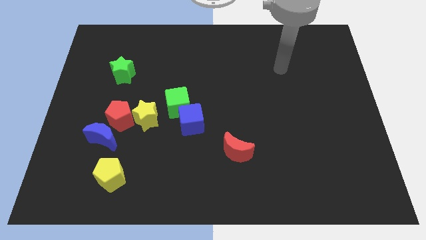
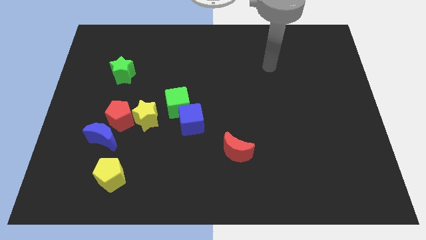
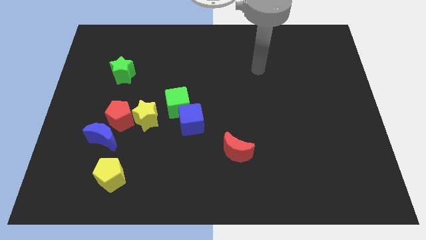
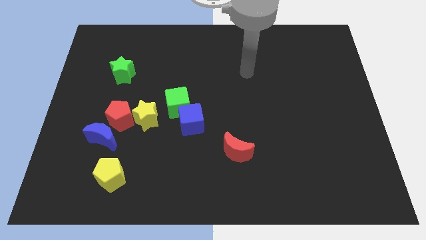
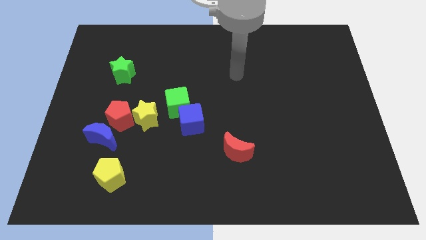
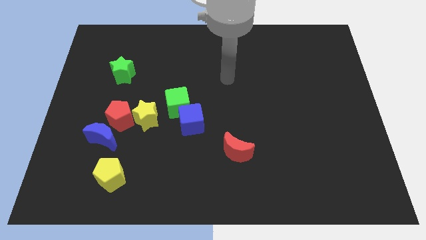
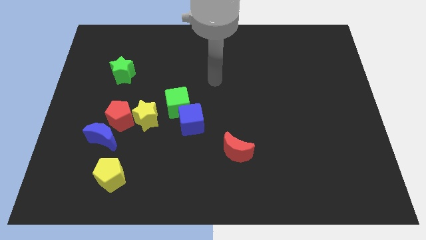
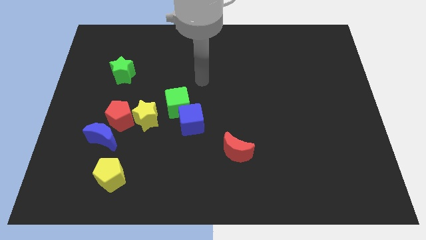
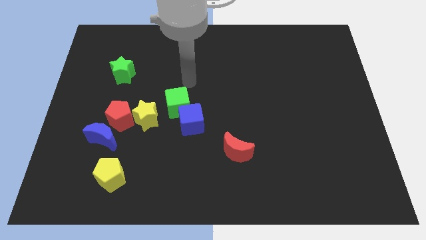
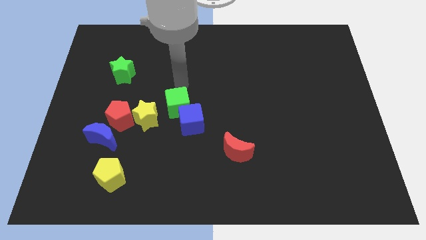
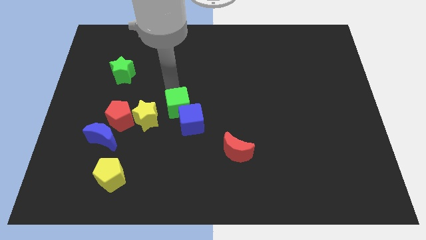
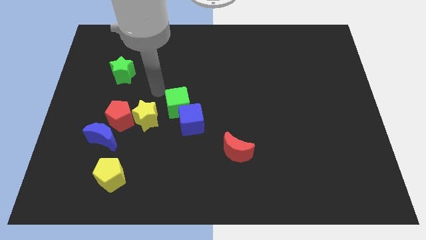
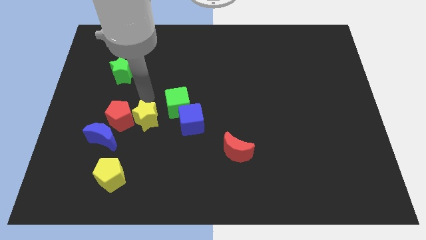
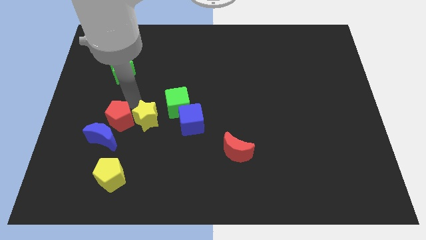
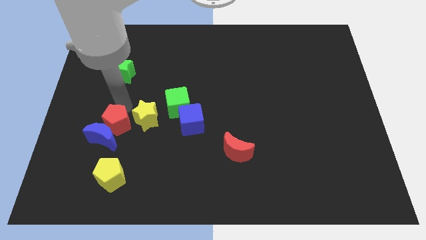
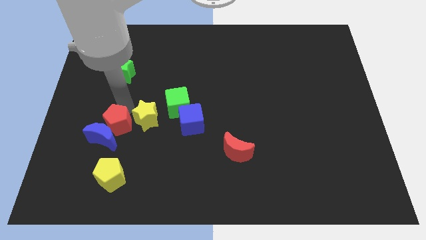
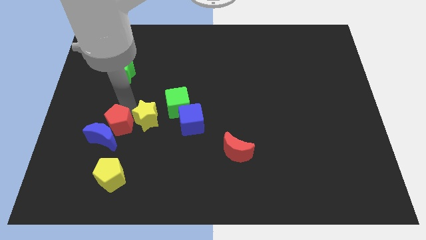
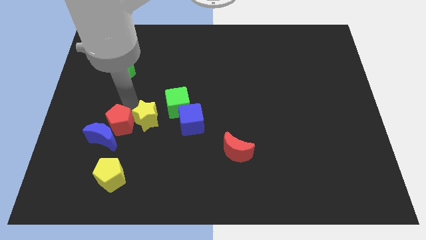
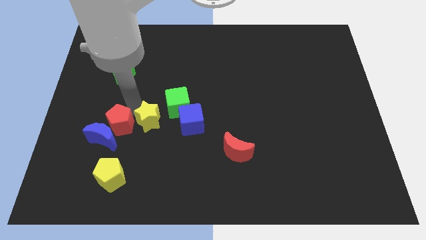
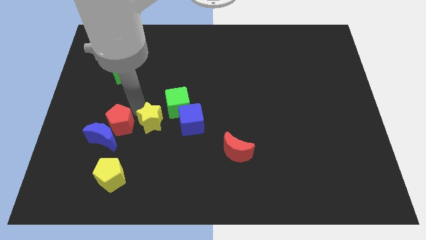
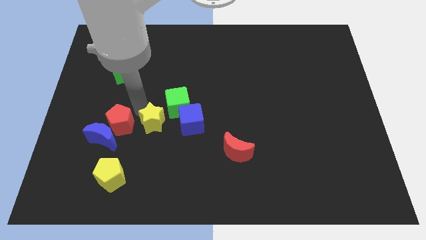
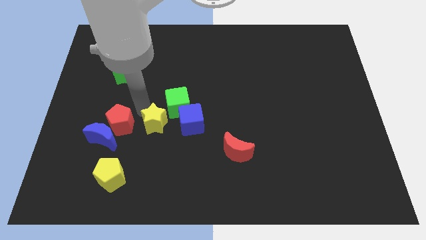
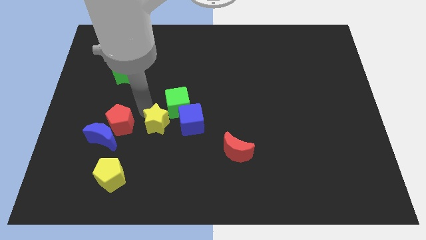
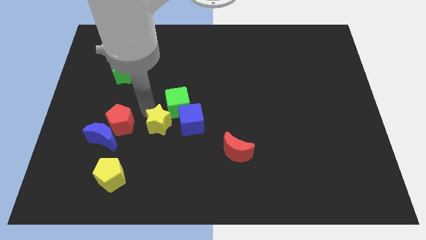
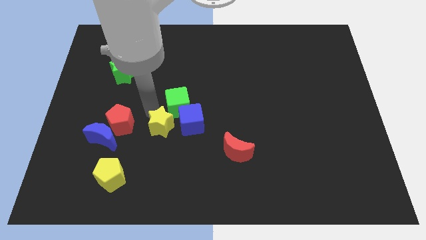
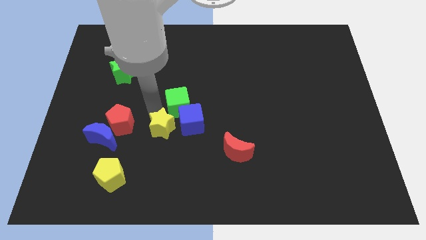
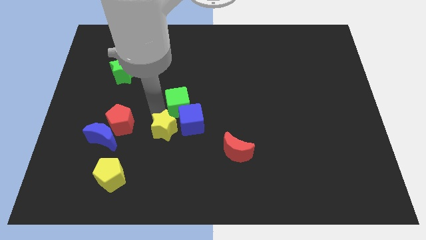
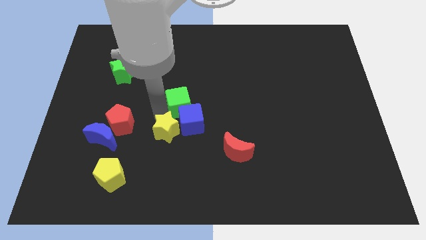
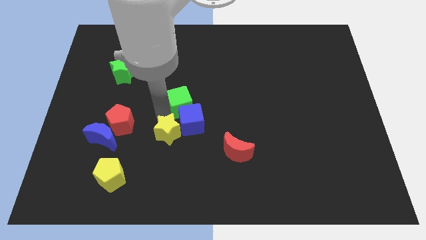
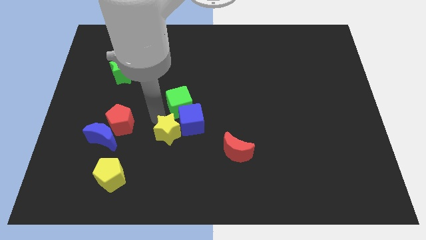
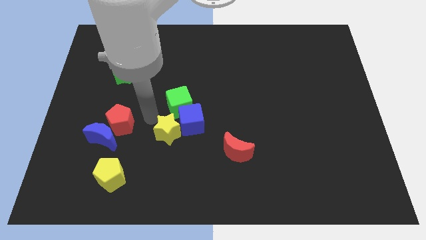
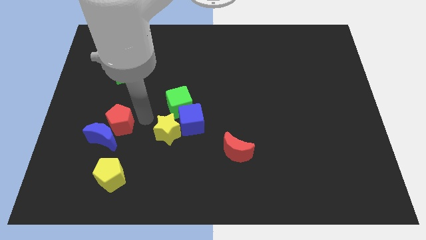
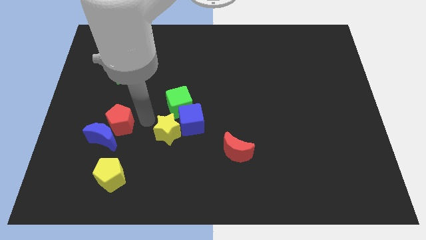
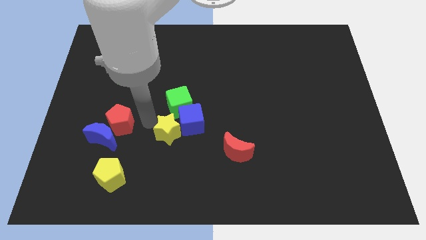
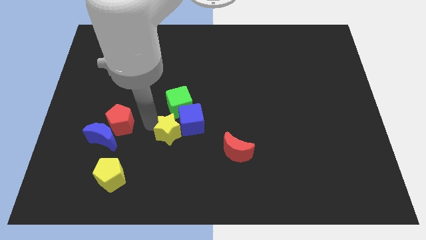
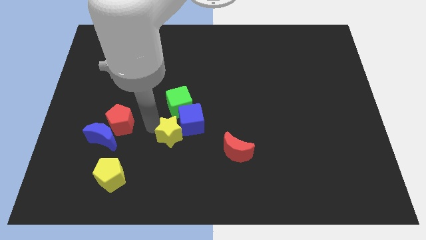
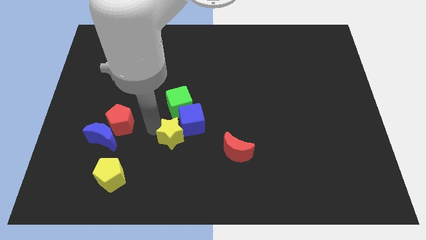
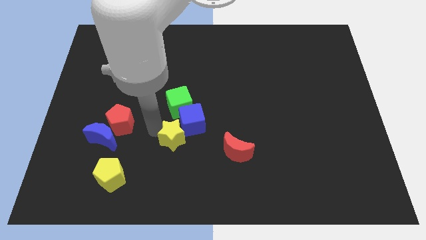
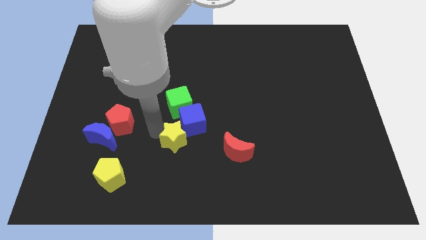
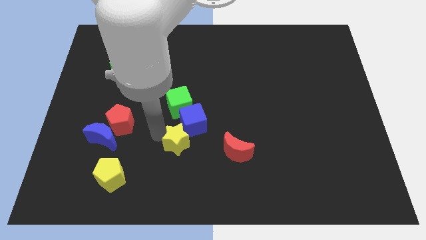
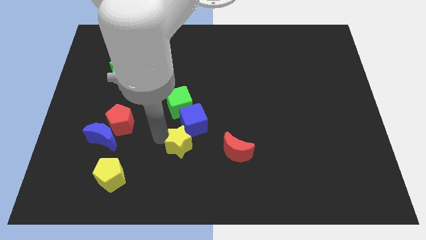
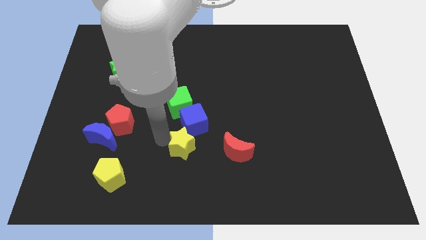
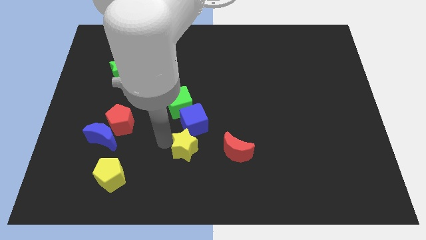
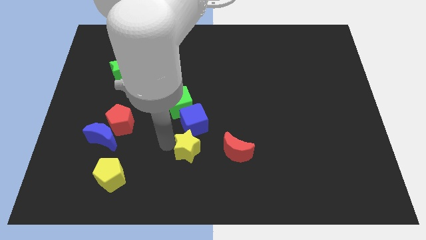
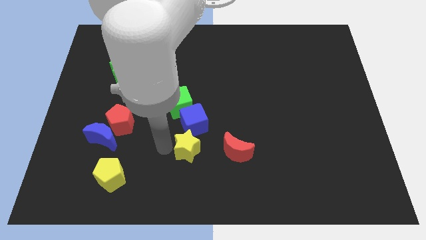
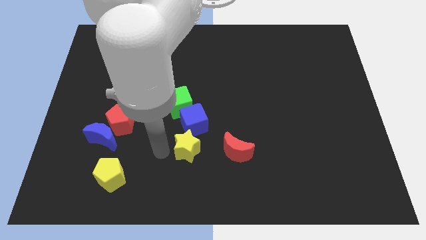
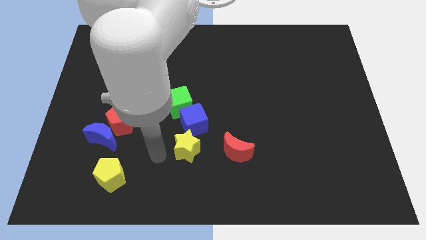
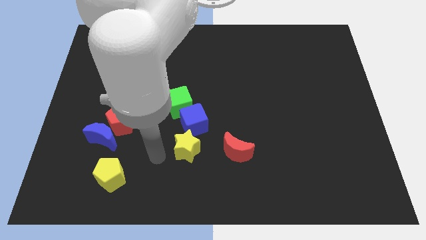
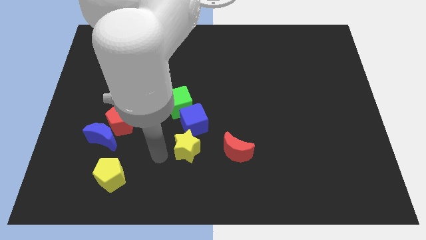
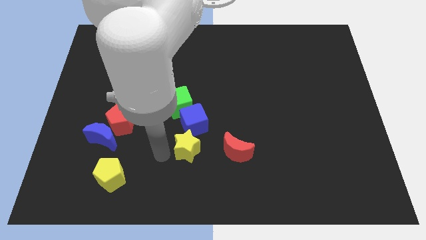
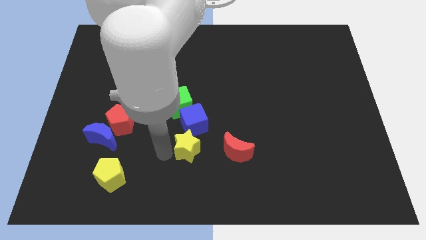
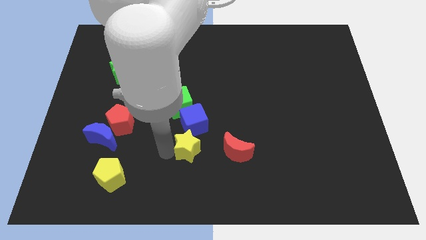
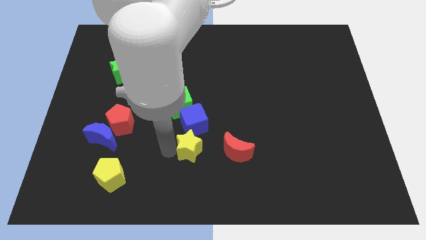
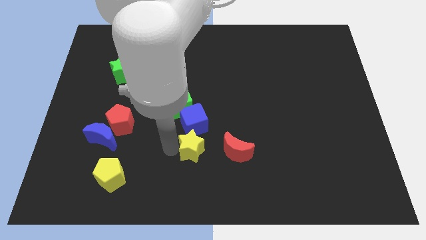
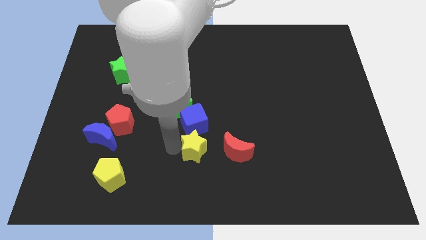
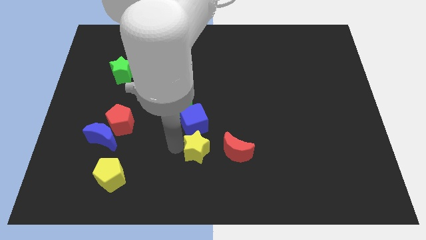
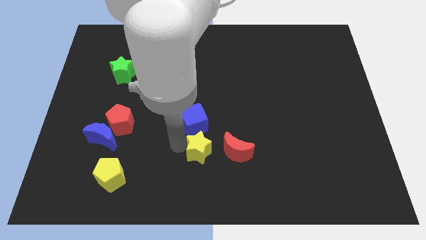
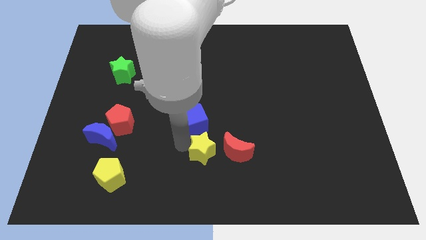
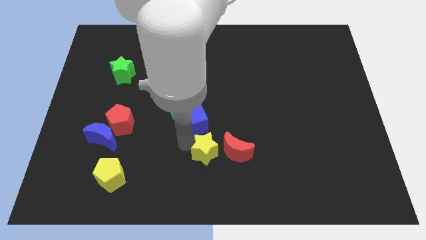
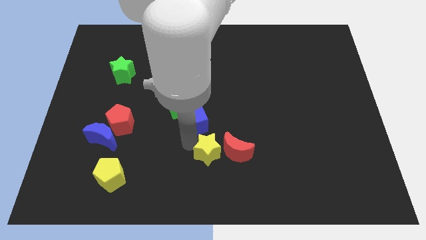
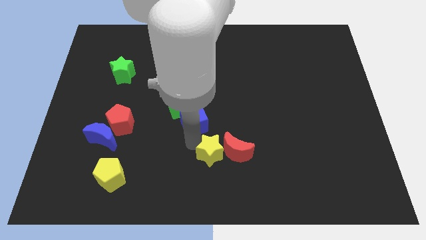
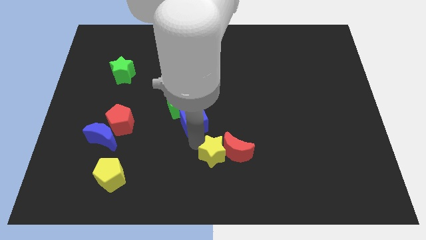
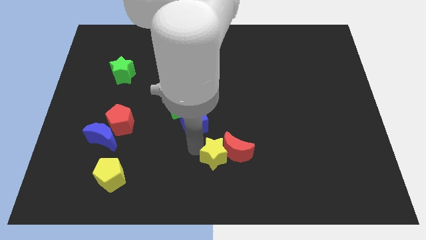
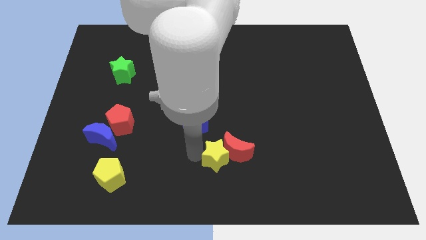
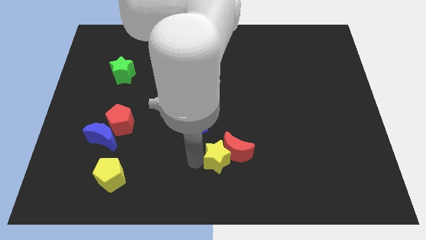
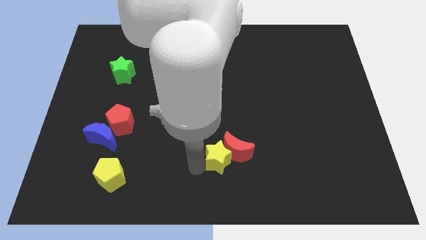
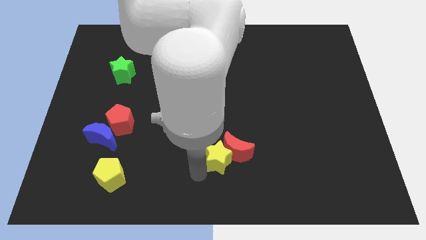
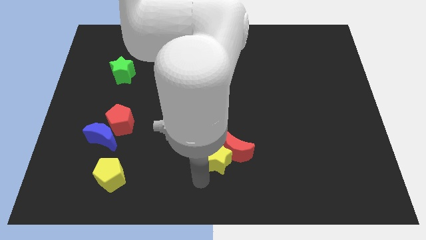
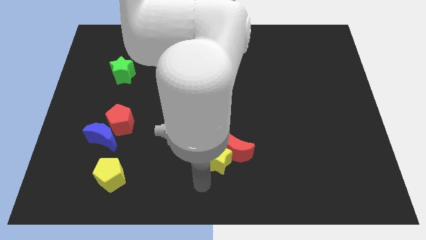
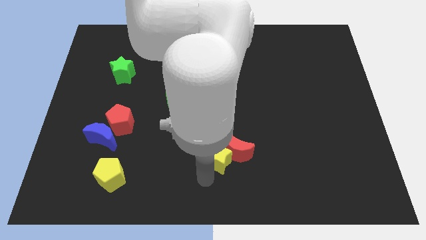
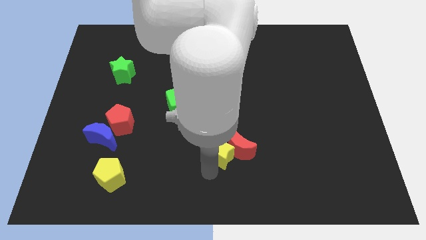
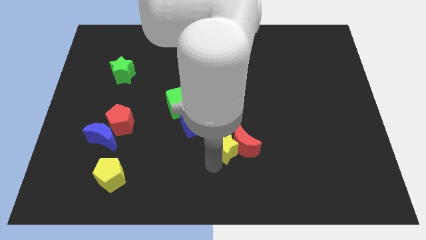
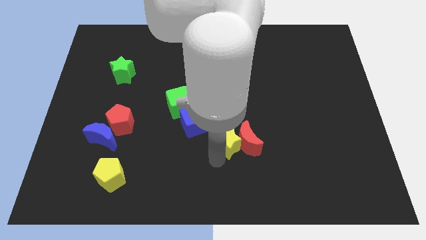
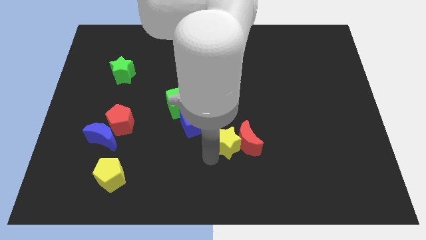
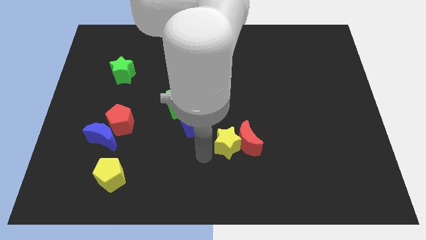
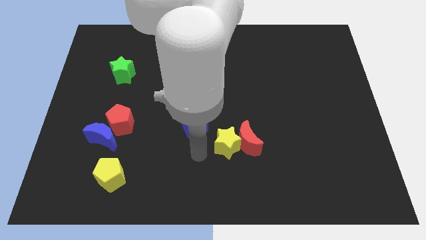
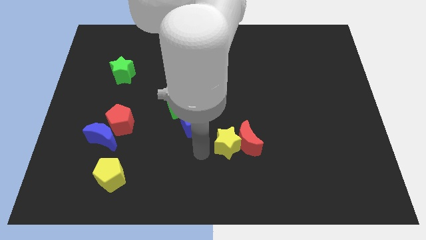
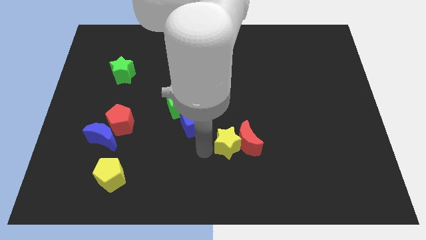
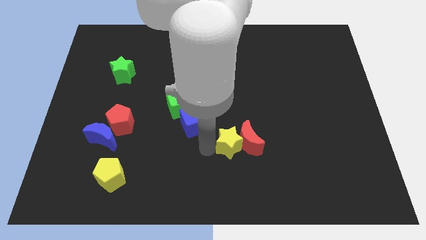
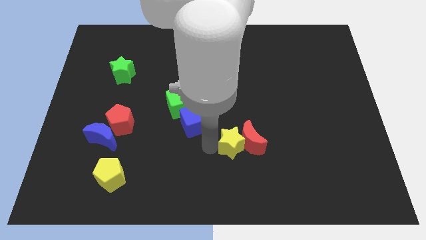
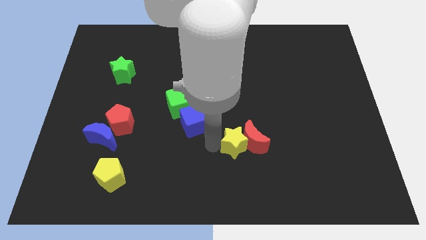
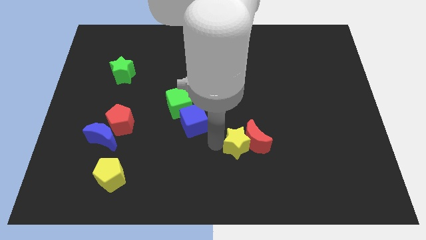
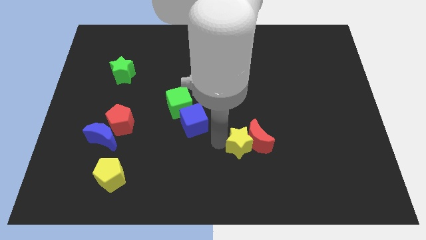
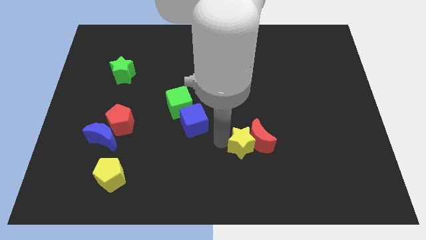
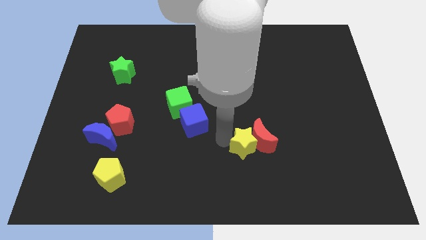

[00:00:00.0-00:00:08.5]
push the yellow star to the right
